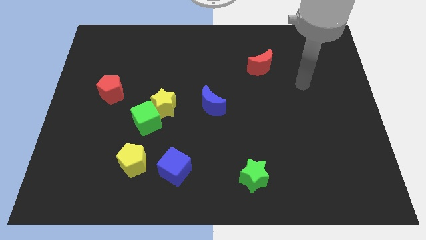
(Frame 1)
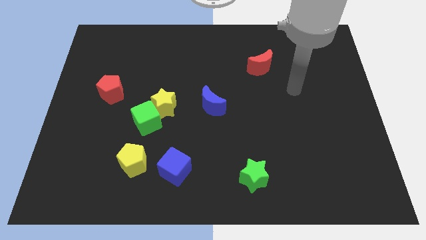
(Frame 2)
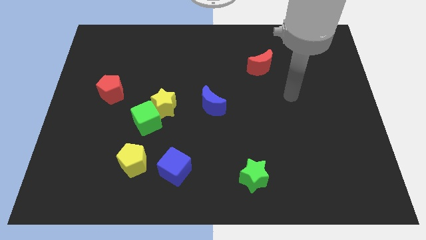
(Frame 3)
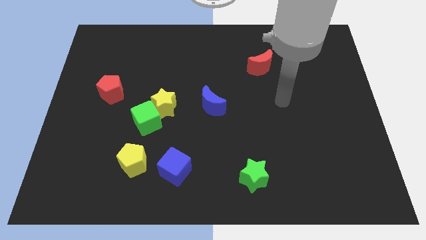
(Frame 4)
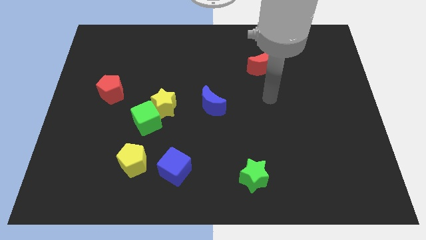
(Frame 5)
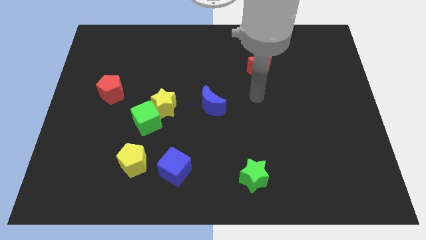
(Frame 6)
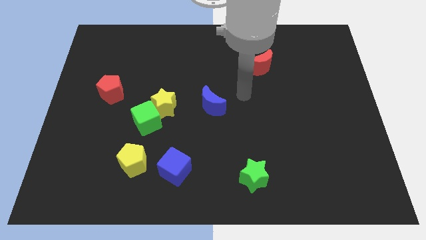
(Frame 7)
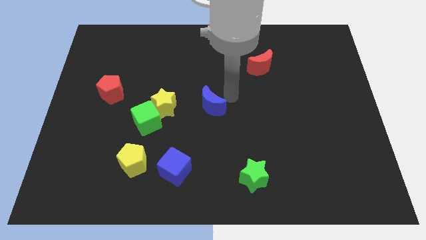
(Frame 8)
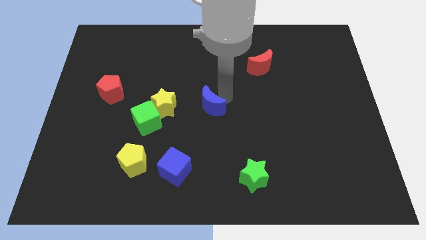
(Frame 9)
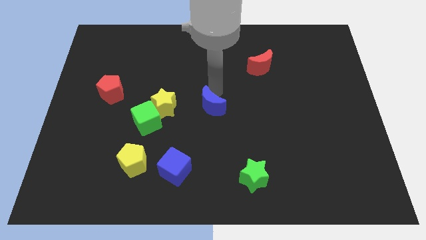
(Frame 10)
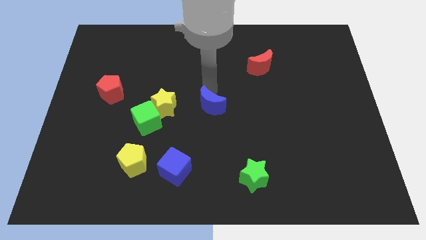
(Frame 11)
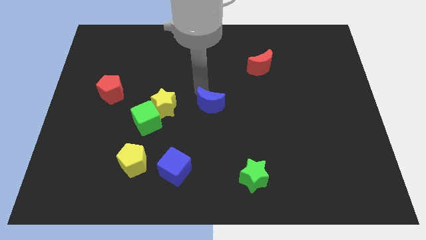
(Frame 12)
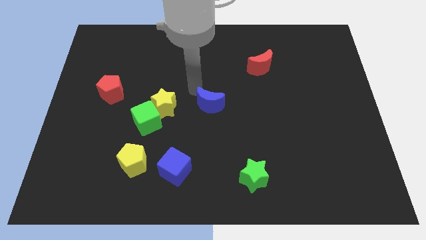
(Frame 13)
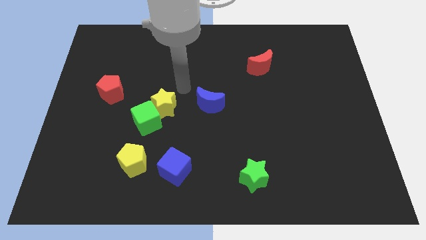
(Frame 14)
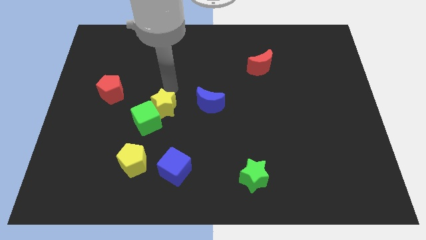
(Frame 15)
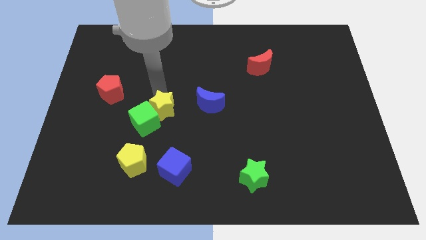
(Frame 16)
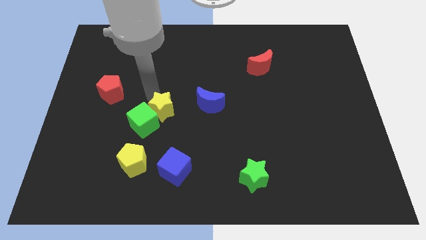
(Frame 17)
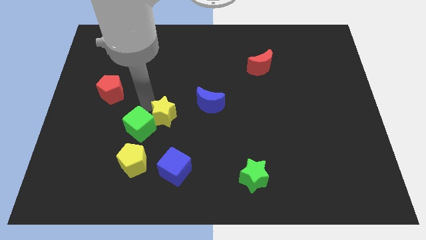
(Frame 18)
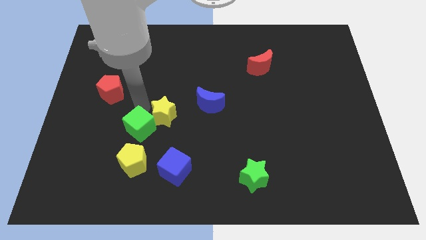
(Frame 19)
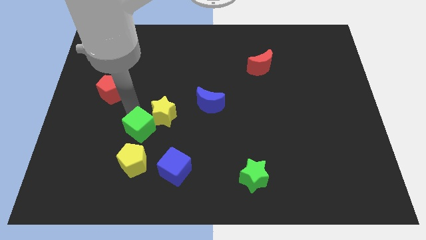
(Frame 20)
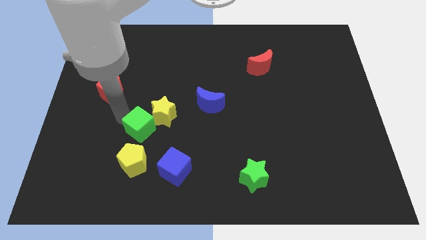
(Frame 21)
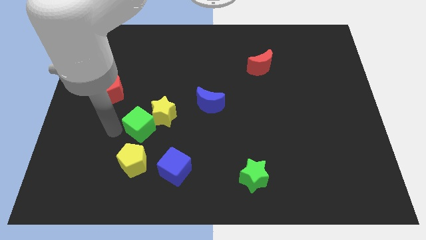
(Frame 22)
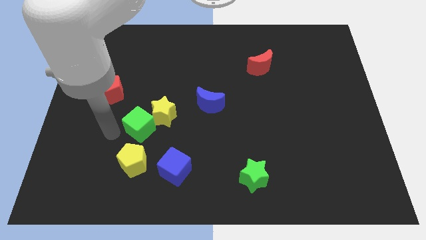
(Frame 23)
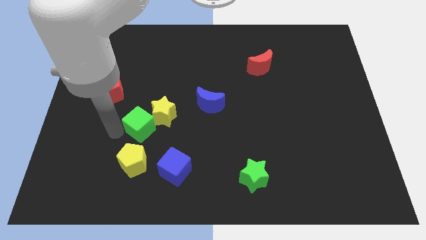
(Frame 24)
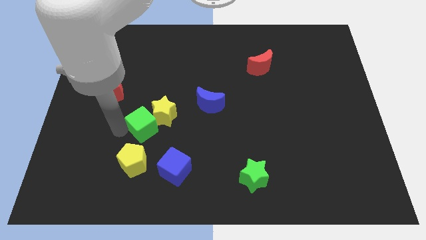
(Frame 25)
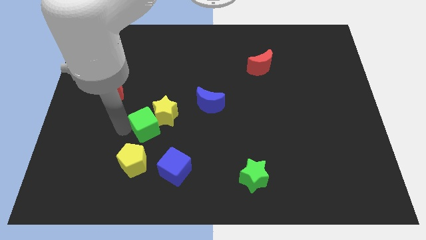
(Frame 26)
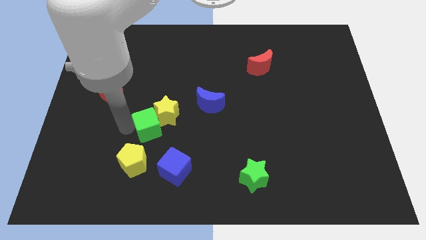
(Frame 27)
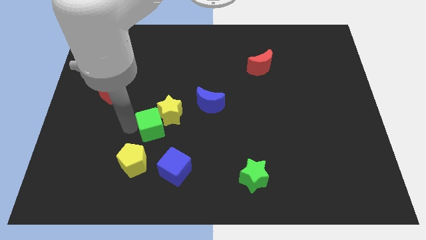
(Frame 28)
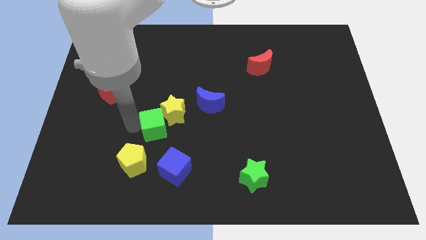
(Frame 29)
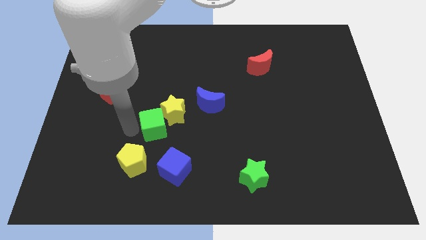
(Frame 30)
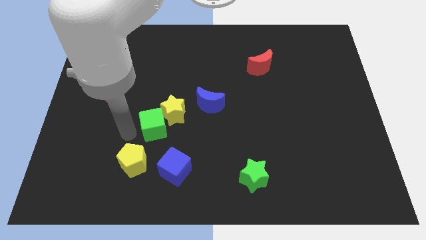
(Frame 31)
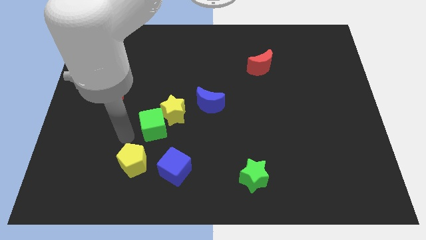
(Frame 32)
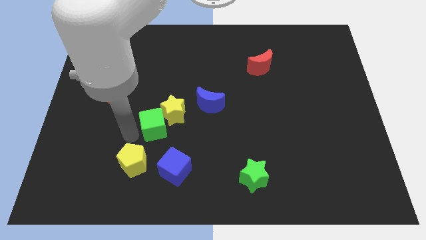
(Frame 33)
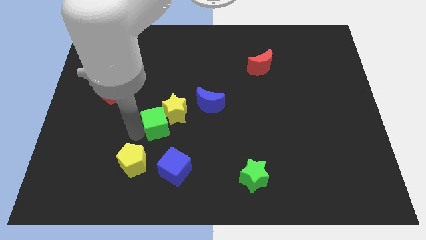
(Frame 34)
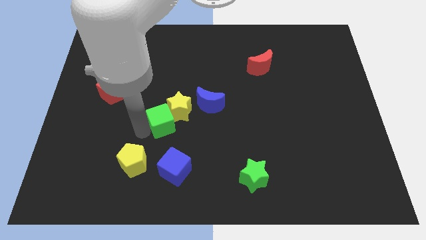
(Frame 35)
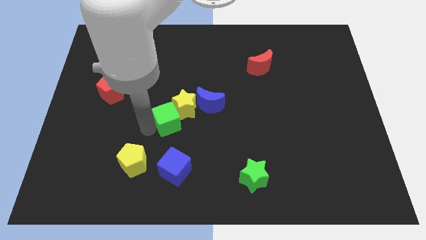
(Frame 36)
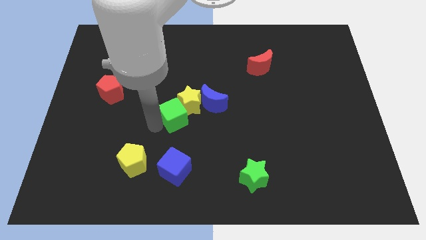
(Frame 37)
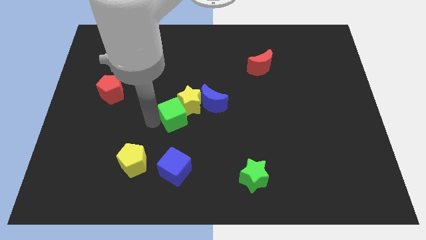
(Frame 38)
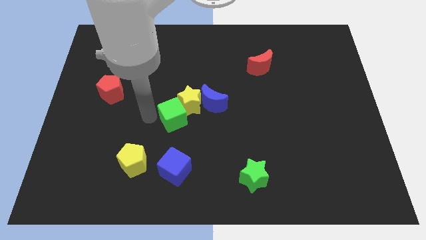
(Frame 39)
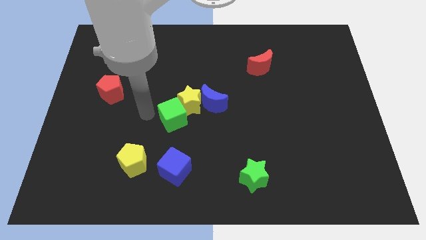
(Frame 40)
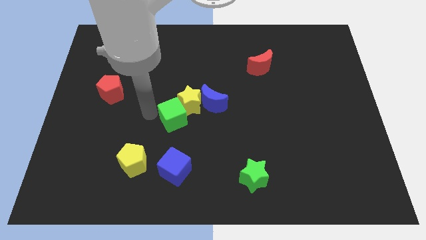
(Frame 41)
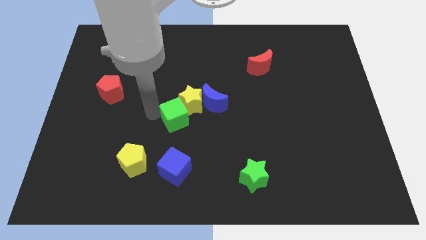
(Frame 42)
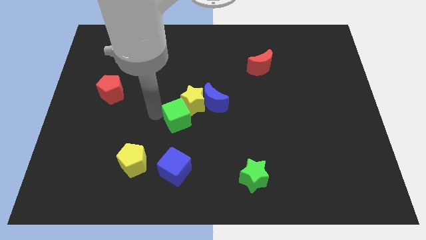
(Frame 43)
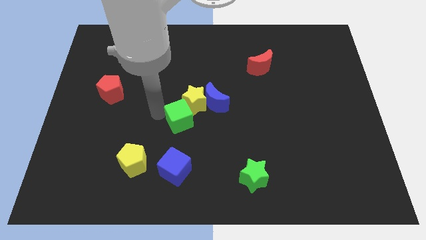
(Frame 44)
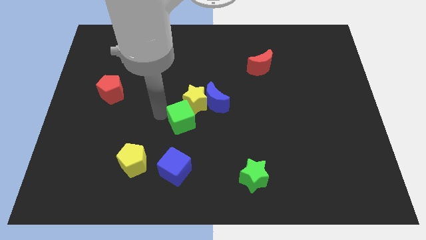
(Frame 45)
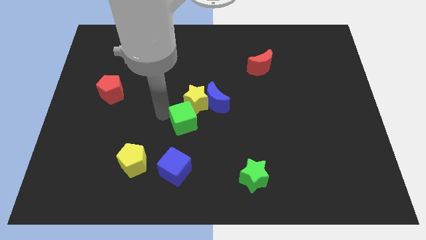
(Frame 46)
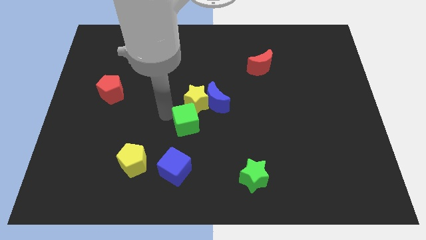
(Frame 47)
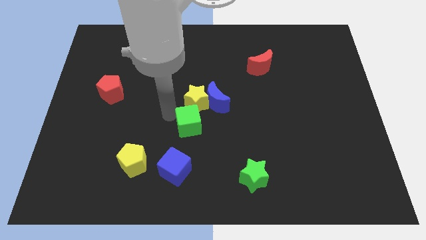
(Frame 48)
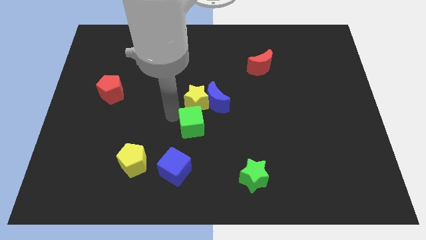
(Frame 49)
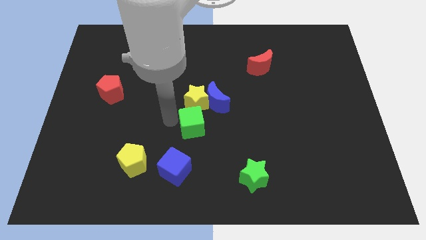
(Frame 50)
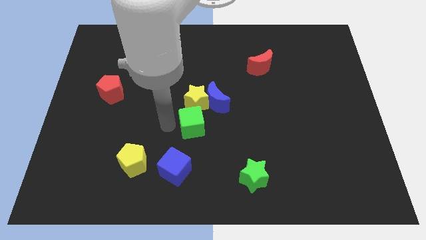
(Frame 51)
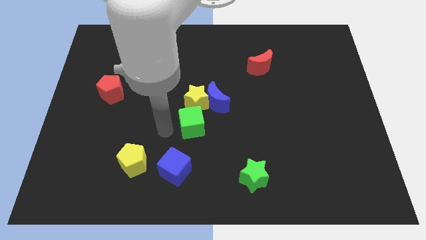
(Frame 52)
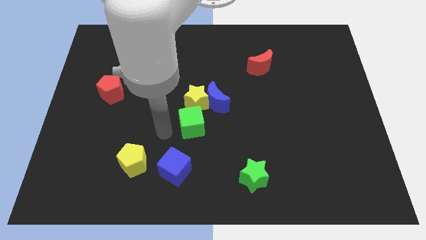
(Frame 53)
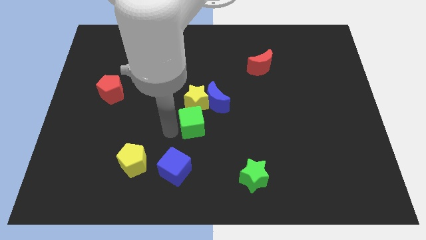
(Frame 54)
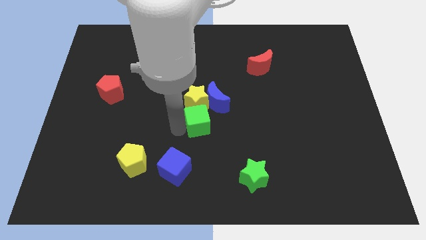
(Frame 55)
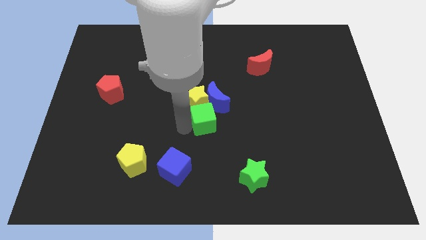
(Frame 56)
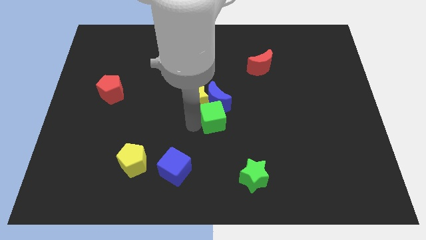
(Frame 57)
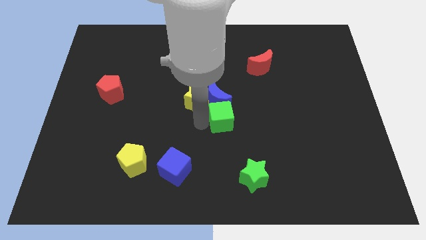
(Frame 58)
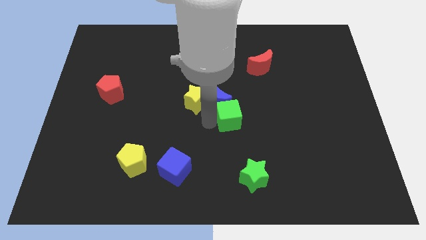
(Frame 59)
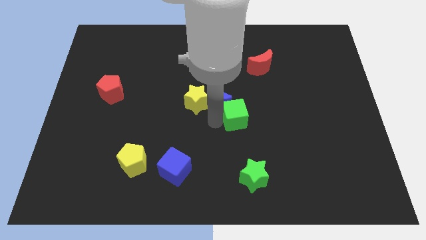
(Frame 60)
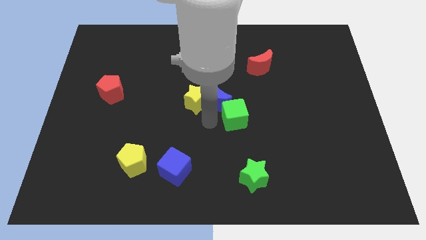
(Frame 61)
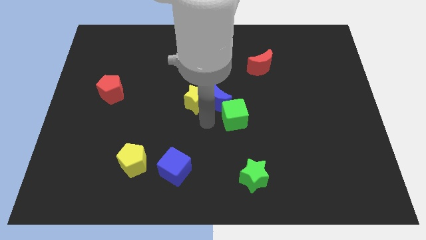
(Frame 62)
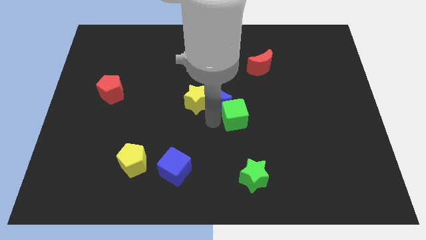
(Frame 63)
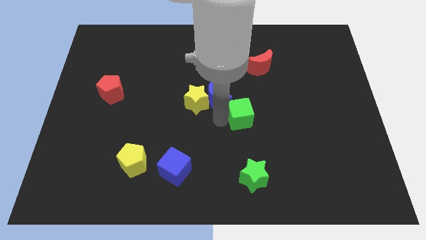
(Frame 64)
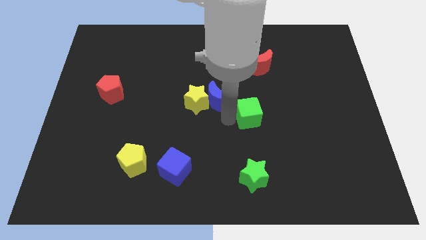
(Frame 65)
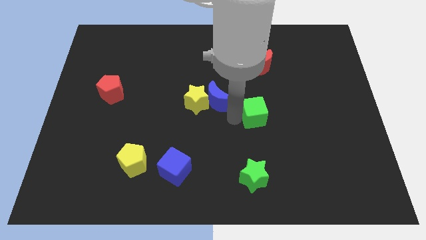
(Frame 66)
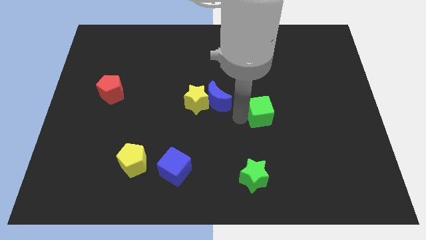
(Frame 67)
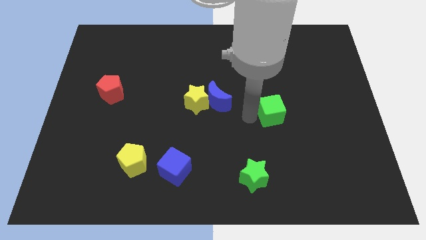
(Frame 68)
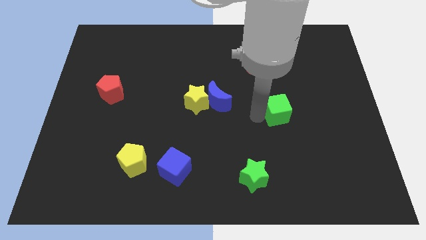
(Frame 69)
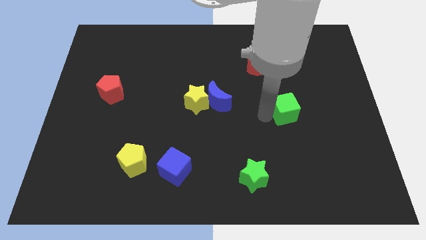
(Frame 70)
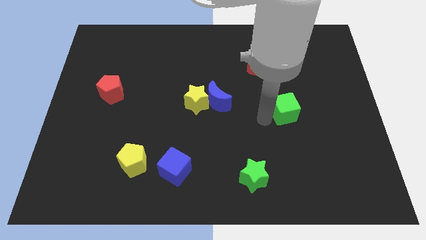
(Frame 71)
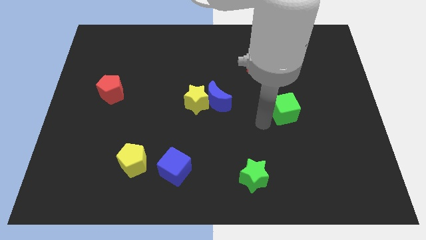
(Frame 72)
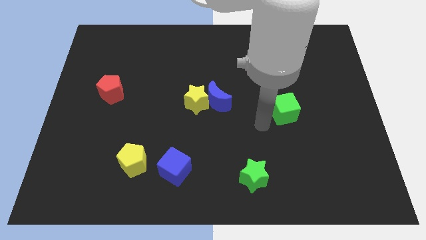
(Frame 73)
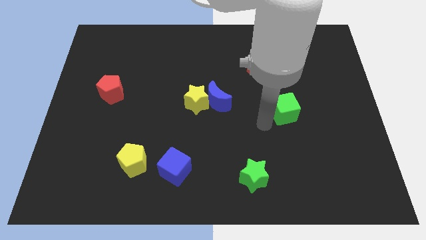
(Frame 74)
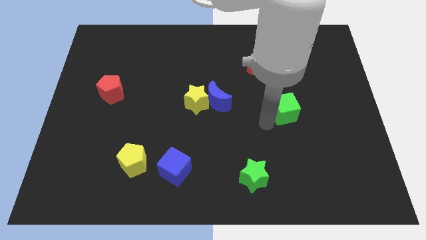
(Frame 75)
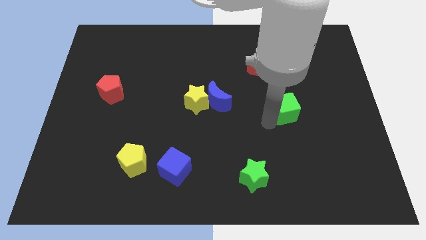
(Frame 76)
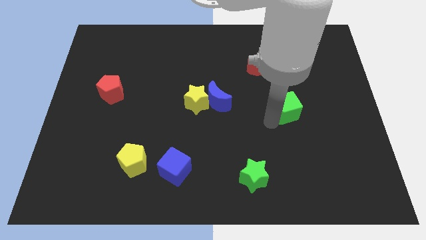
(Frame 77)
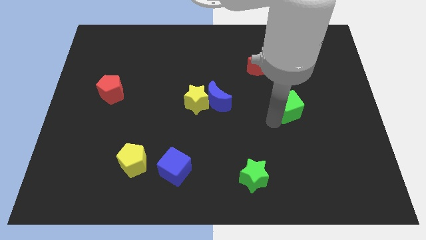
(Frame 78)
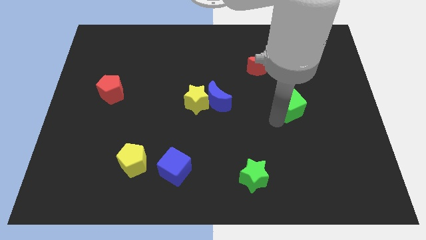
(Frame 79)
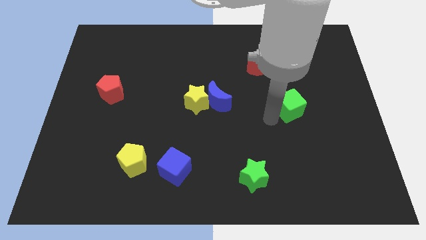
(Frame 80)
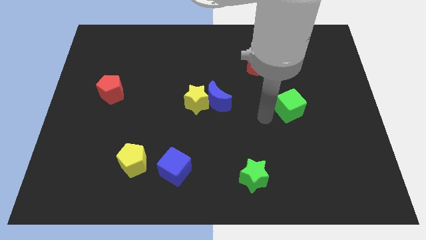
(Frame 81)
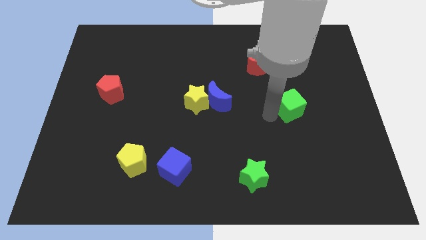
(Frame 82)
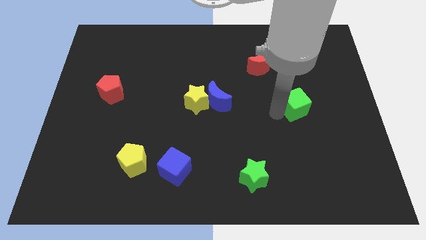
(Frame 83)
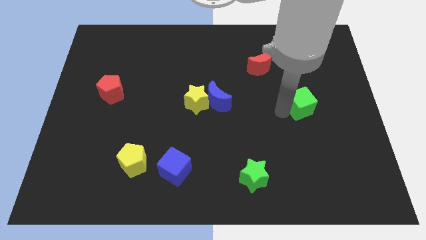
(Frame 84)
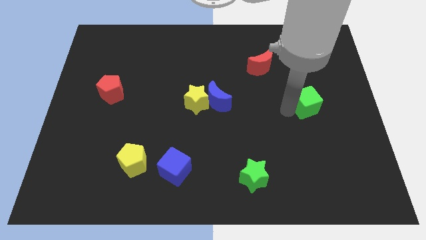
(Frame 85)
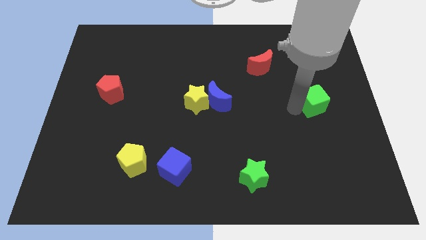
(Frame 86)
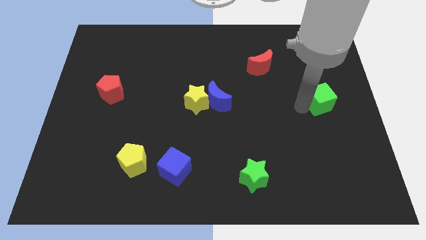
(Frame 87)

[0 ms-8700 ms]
put the green cube to the right side of the board
